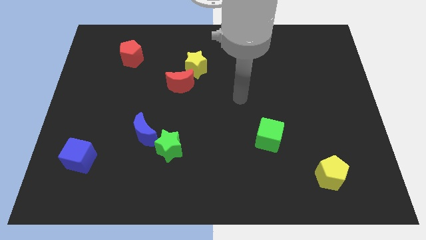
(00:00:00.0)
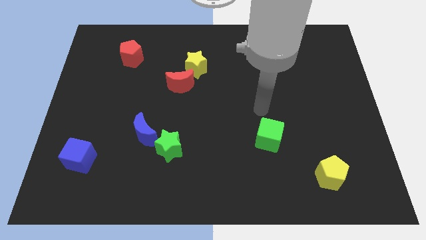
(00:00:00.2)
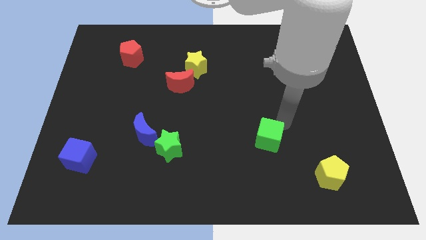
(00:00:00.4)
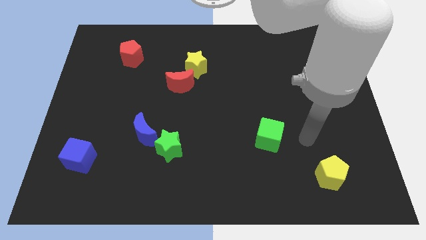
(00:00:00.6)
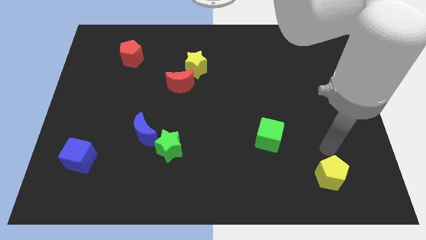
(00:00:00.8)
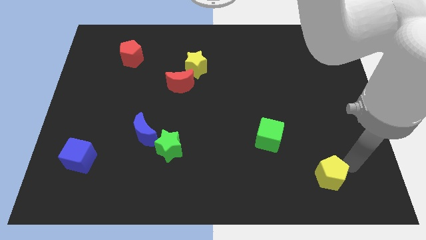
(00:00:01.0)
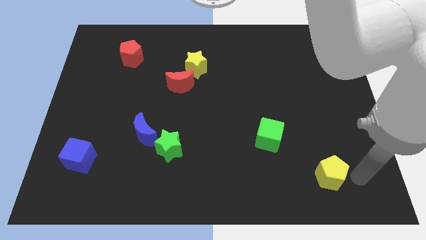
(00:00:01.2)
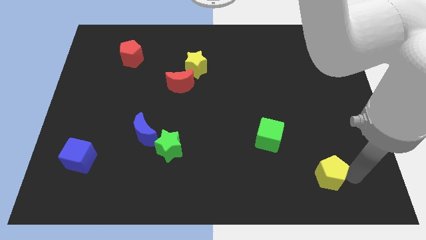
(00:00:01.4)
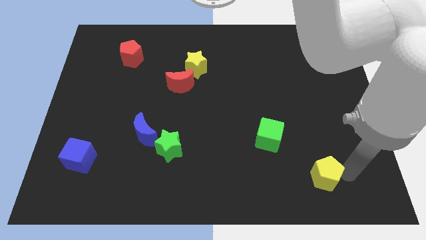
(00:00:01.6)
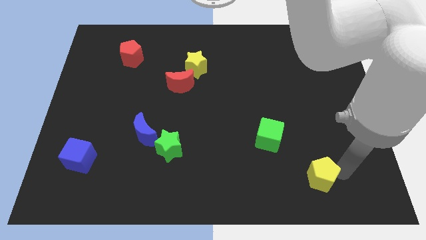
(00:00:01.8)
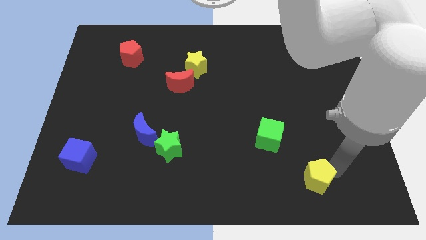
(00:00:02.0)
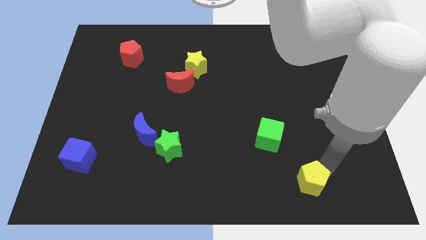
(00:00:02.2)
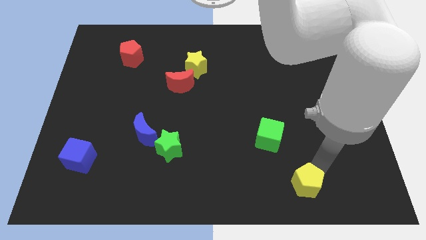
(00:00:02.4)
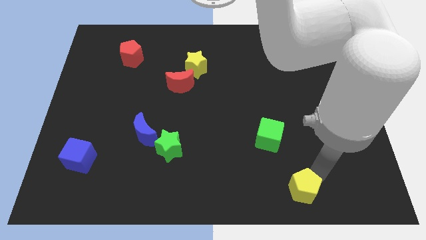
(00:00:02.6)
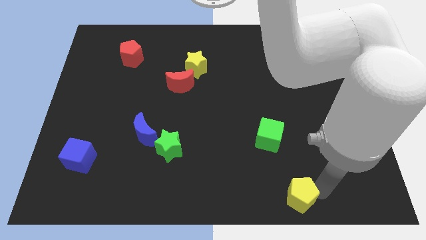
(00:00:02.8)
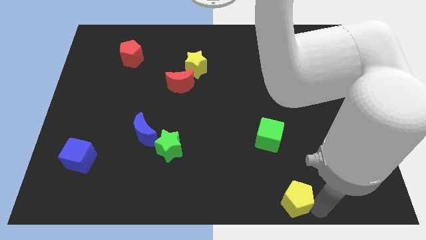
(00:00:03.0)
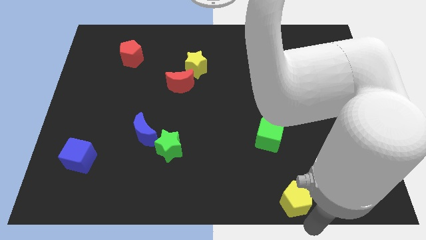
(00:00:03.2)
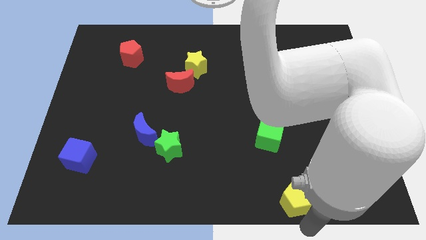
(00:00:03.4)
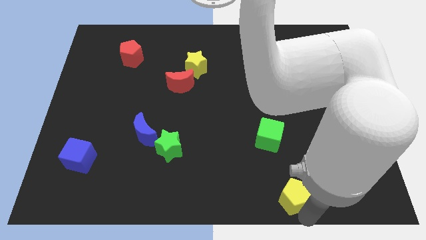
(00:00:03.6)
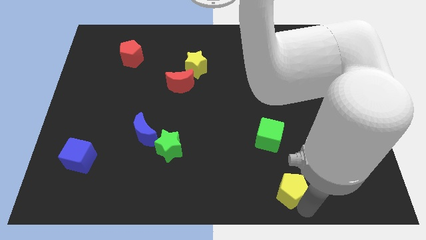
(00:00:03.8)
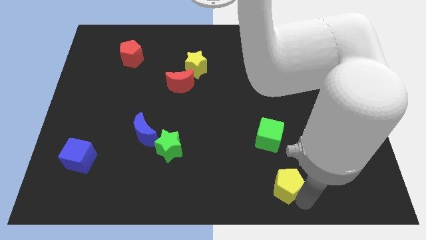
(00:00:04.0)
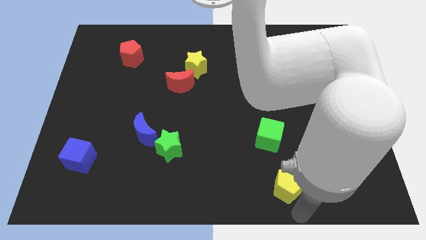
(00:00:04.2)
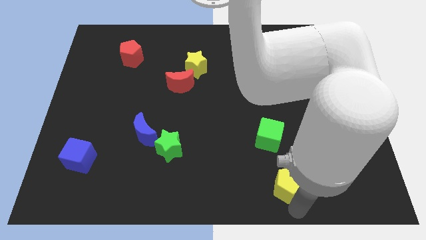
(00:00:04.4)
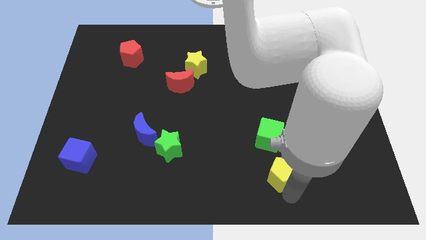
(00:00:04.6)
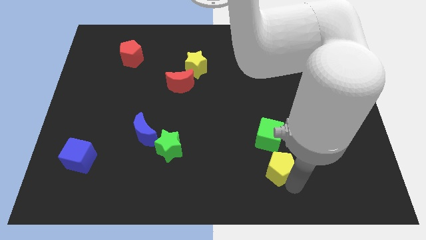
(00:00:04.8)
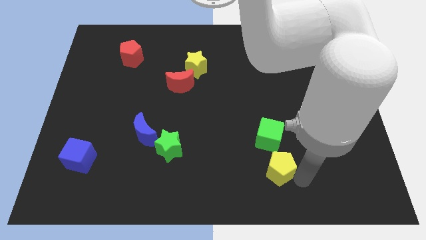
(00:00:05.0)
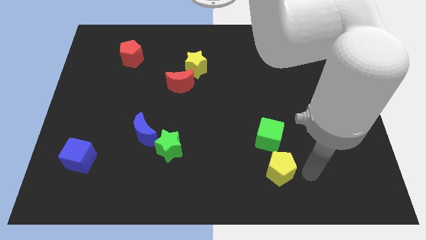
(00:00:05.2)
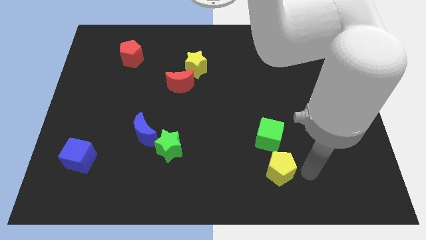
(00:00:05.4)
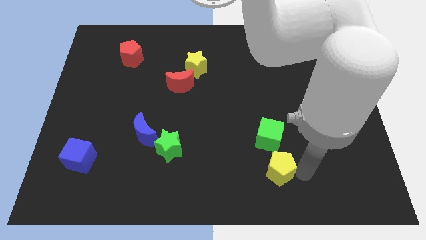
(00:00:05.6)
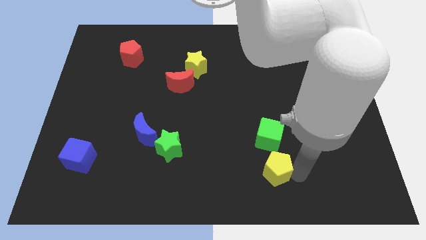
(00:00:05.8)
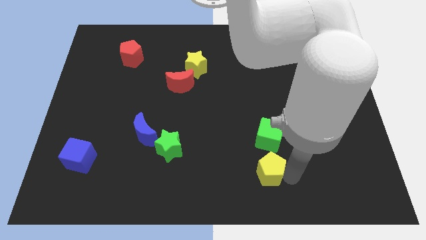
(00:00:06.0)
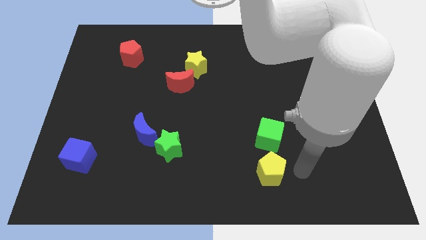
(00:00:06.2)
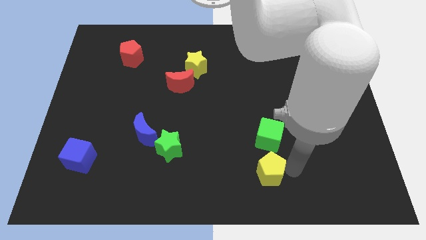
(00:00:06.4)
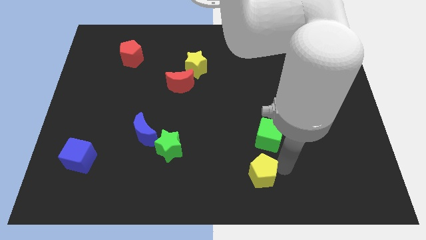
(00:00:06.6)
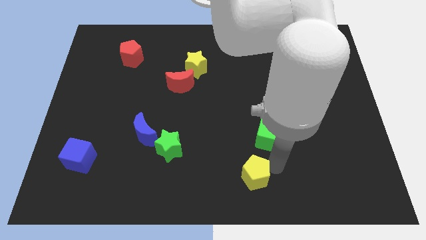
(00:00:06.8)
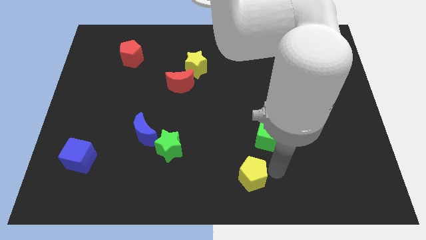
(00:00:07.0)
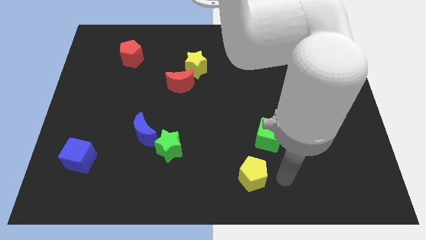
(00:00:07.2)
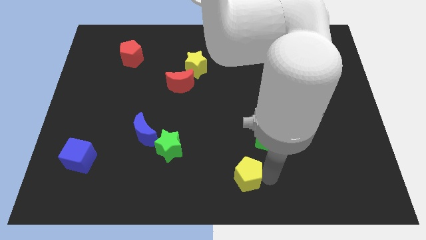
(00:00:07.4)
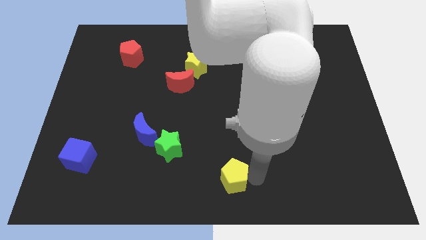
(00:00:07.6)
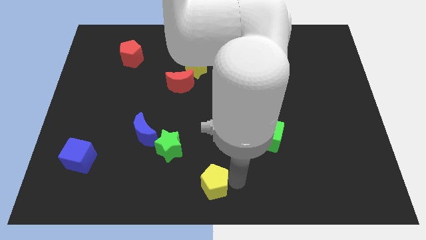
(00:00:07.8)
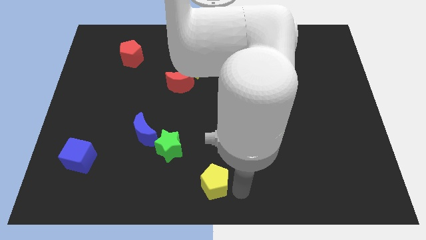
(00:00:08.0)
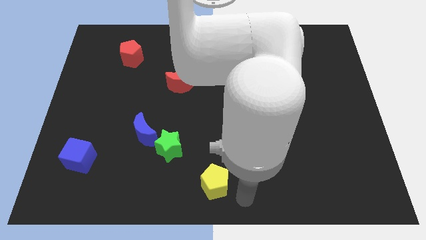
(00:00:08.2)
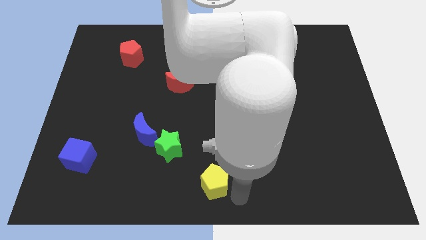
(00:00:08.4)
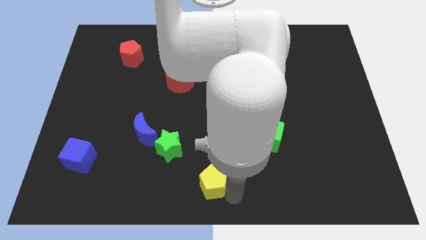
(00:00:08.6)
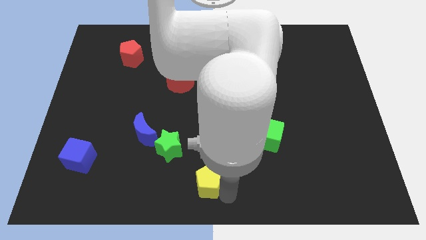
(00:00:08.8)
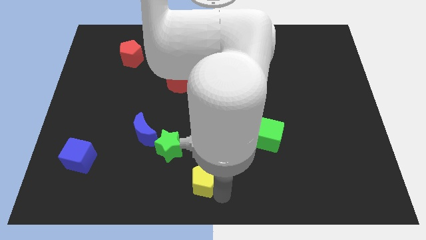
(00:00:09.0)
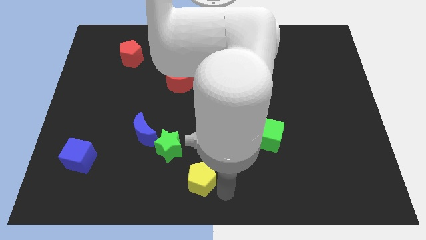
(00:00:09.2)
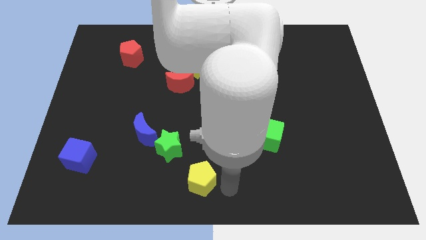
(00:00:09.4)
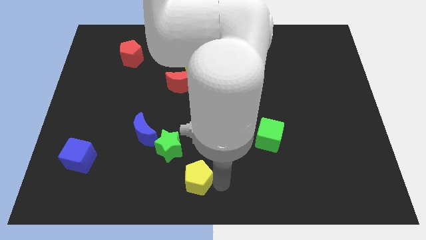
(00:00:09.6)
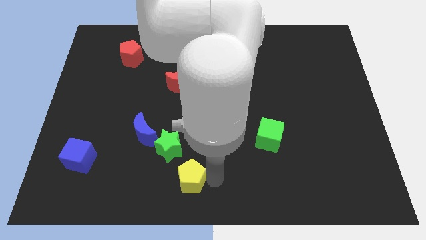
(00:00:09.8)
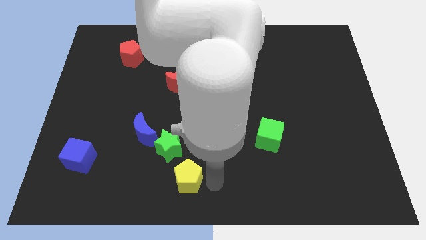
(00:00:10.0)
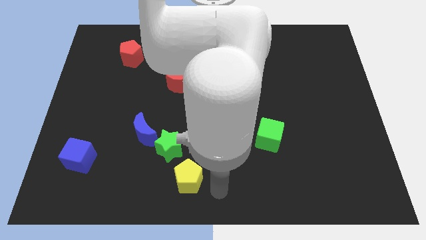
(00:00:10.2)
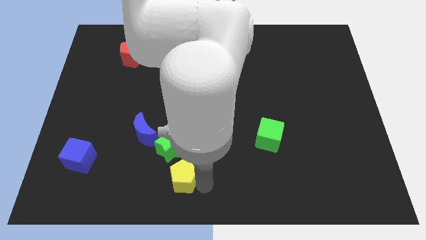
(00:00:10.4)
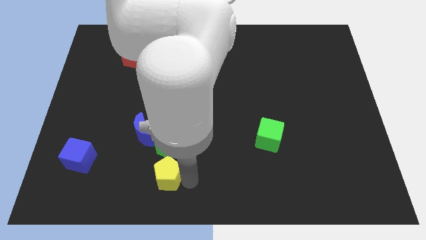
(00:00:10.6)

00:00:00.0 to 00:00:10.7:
slide the yellow pentagon to the bottom left of the green star

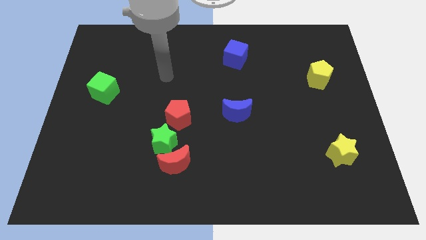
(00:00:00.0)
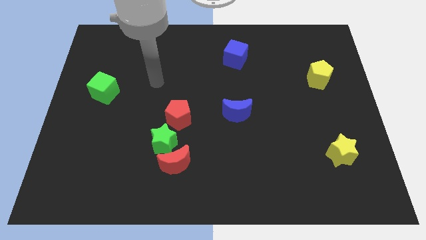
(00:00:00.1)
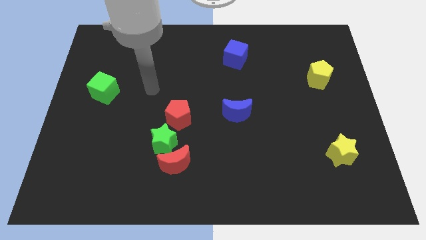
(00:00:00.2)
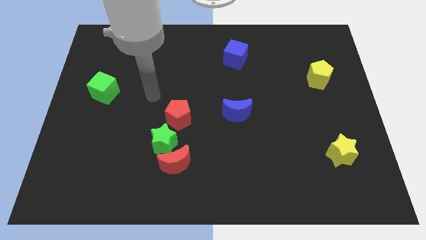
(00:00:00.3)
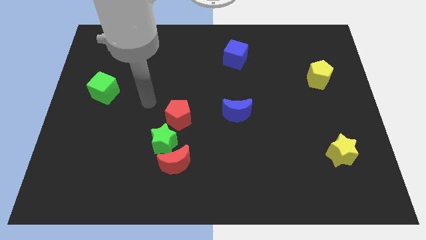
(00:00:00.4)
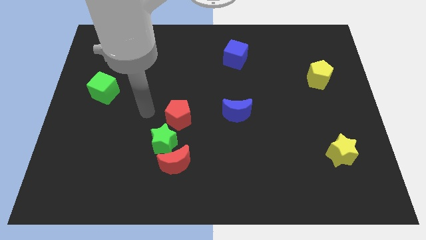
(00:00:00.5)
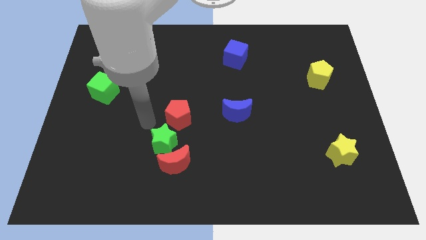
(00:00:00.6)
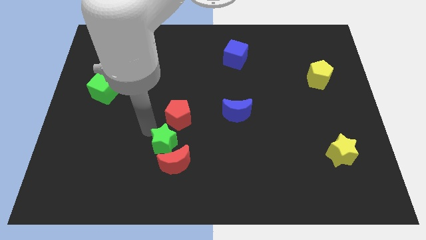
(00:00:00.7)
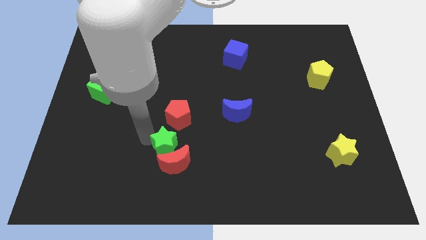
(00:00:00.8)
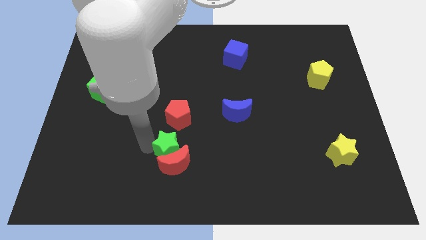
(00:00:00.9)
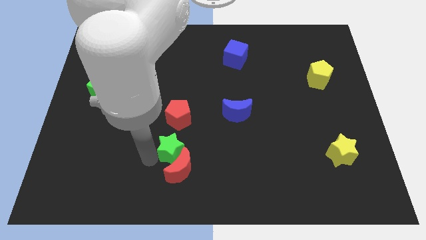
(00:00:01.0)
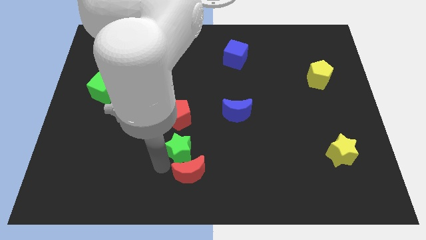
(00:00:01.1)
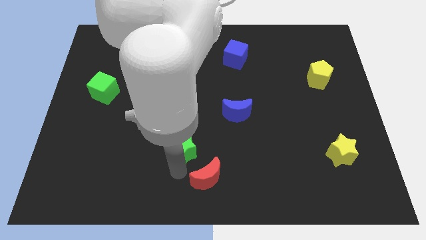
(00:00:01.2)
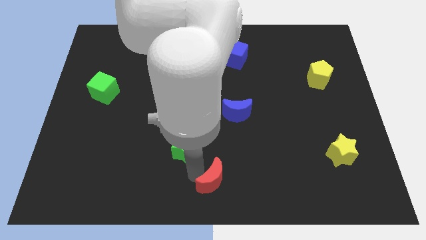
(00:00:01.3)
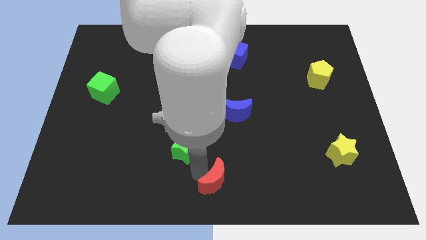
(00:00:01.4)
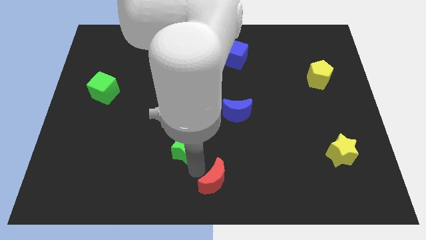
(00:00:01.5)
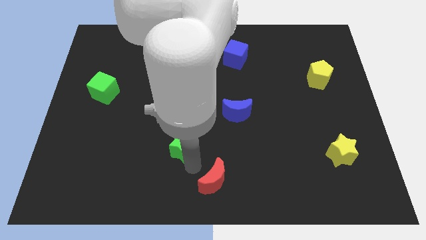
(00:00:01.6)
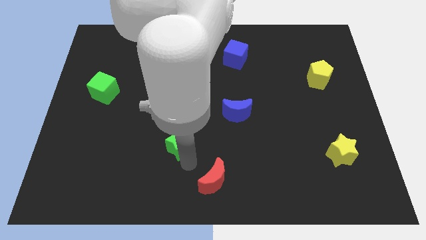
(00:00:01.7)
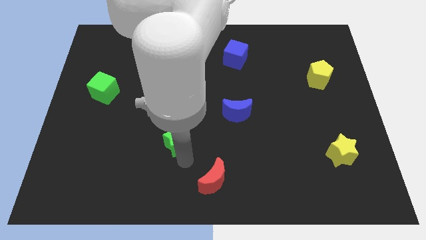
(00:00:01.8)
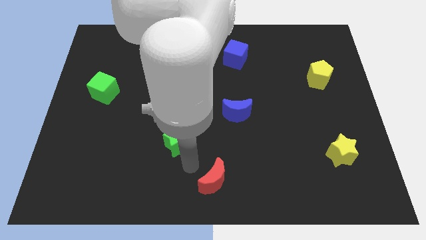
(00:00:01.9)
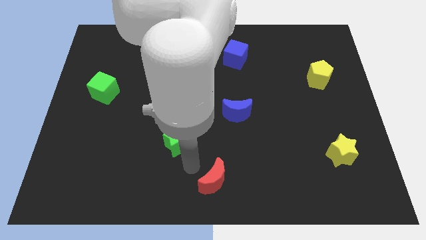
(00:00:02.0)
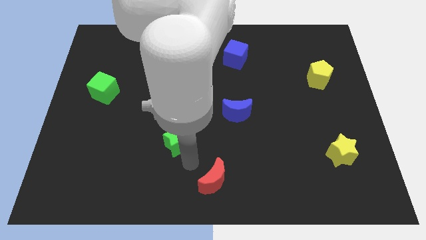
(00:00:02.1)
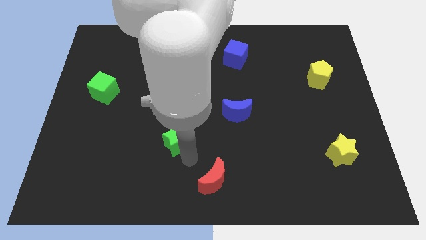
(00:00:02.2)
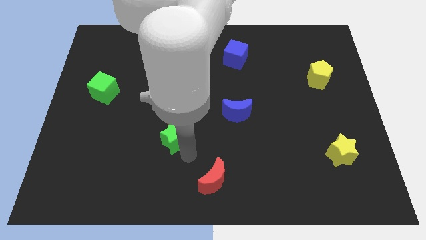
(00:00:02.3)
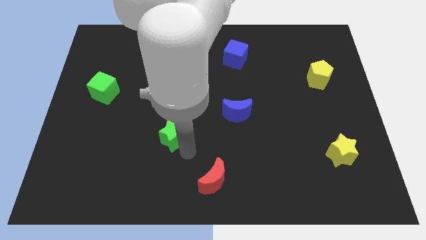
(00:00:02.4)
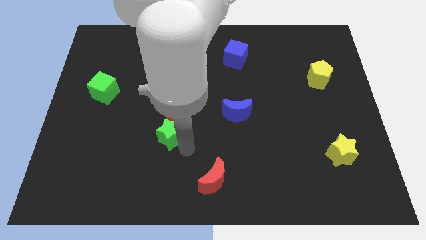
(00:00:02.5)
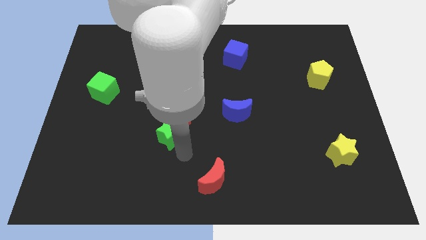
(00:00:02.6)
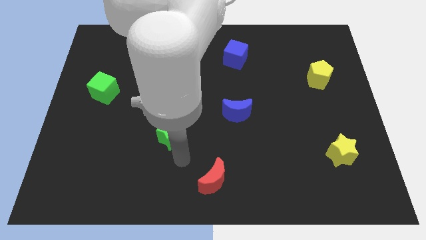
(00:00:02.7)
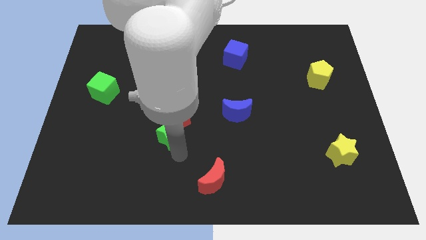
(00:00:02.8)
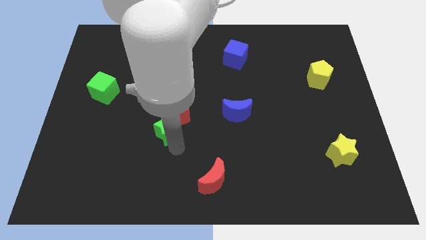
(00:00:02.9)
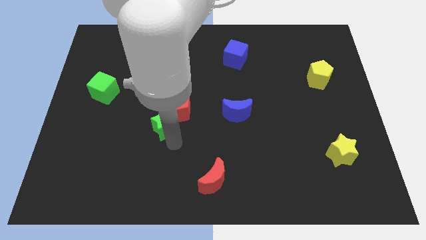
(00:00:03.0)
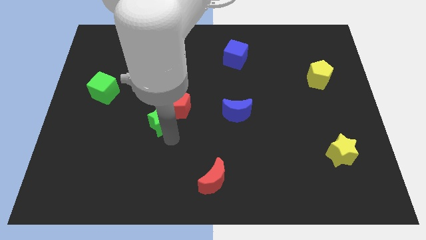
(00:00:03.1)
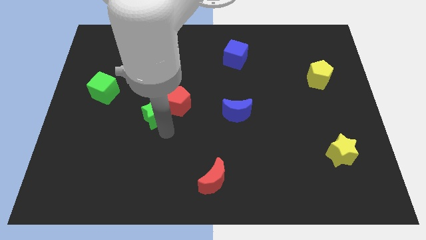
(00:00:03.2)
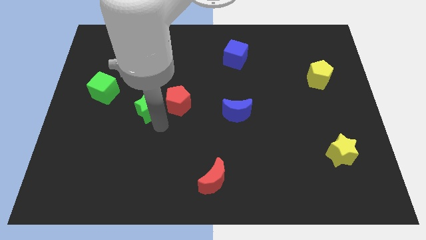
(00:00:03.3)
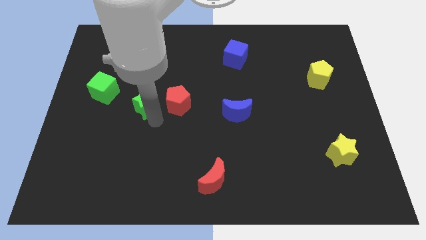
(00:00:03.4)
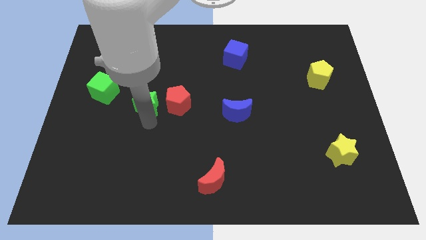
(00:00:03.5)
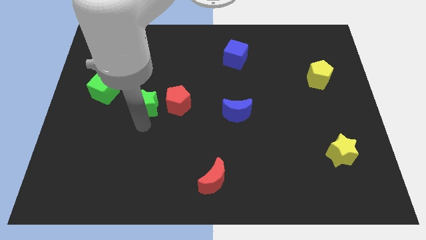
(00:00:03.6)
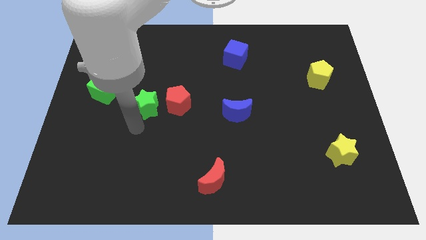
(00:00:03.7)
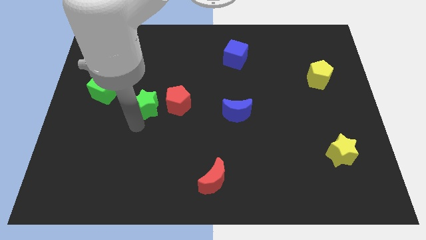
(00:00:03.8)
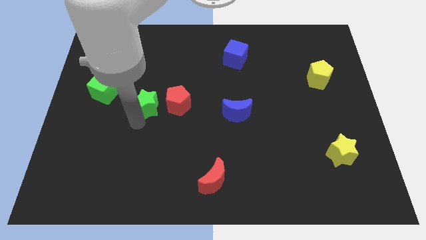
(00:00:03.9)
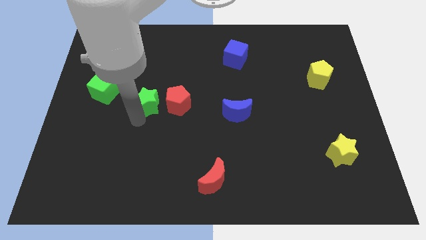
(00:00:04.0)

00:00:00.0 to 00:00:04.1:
slide the green star diagonally up and to the left of the red pentagon
